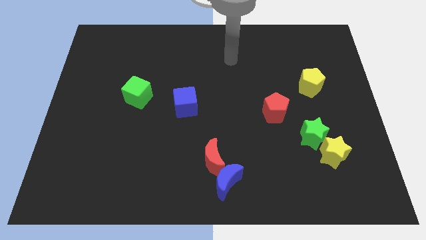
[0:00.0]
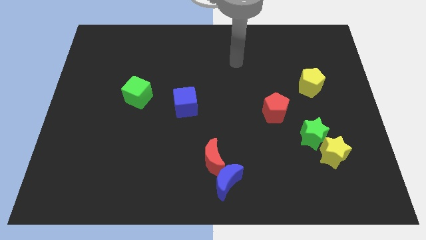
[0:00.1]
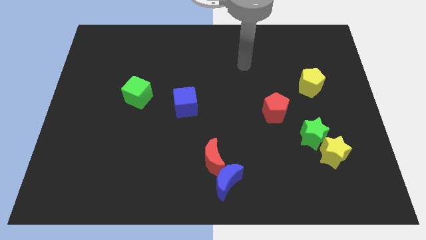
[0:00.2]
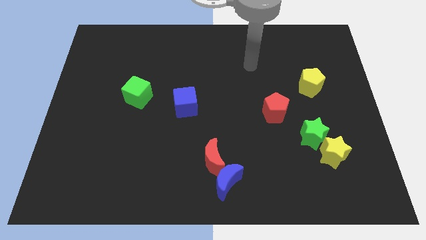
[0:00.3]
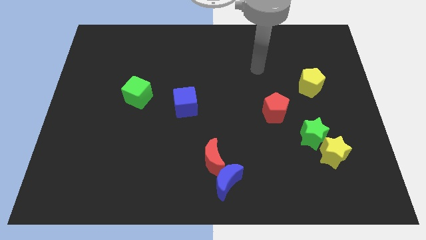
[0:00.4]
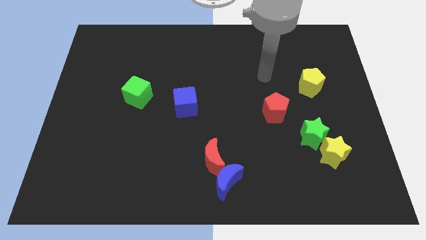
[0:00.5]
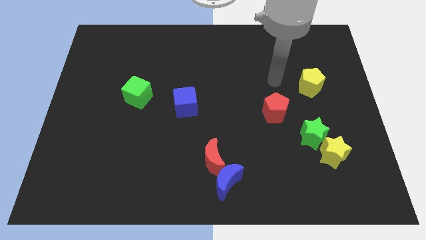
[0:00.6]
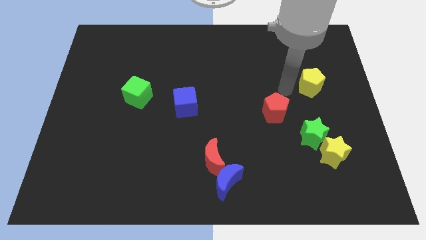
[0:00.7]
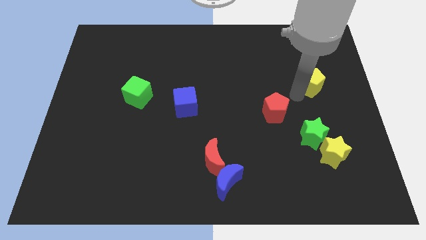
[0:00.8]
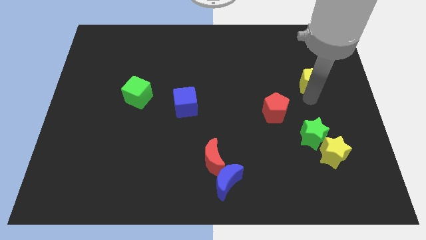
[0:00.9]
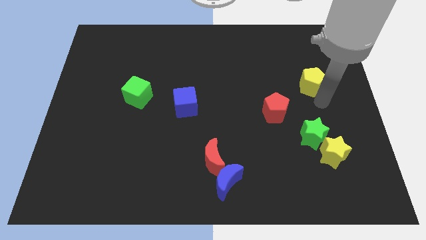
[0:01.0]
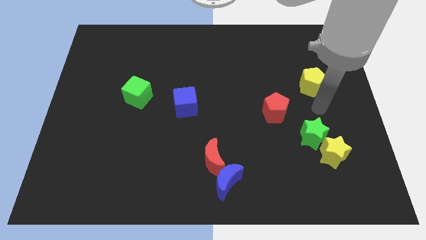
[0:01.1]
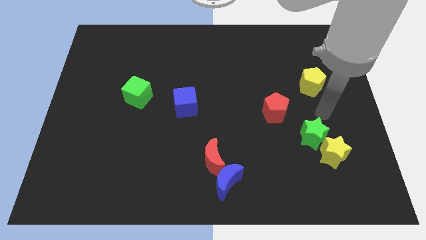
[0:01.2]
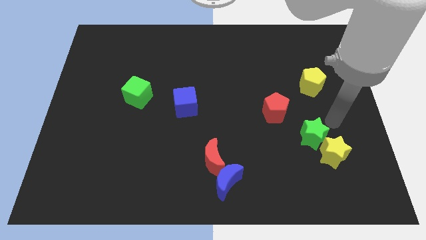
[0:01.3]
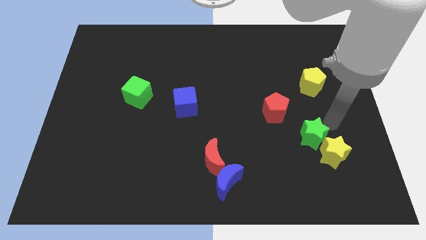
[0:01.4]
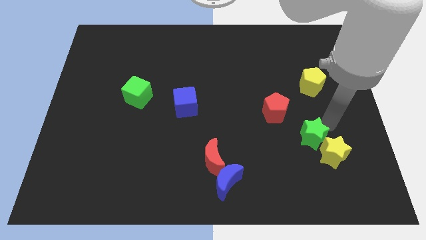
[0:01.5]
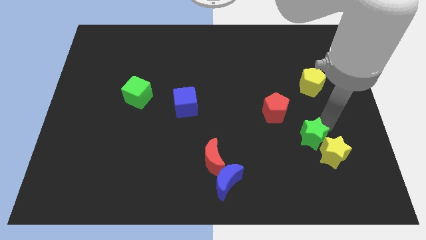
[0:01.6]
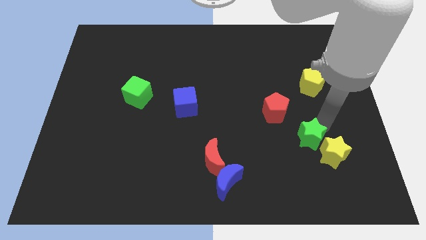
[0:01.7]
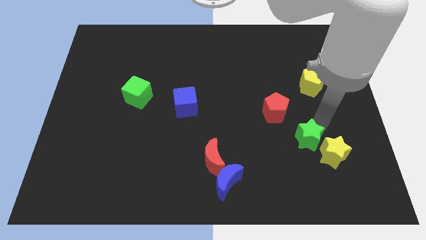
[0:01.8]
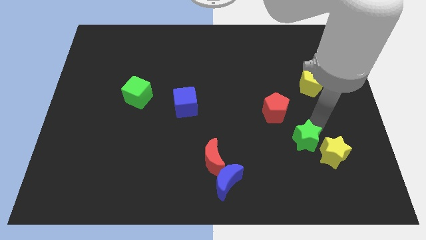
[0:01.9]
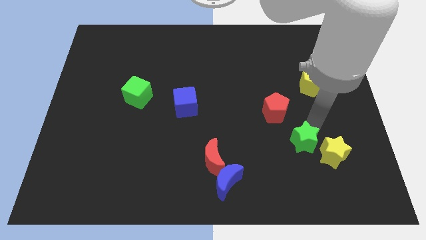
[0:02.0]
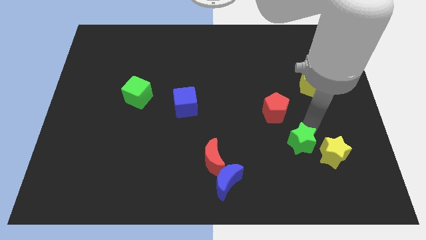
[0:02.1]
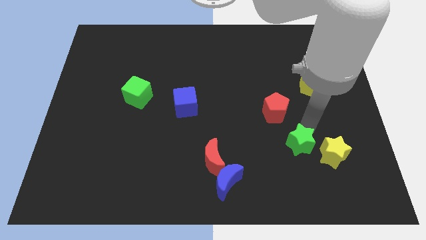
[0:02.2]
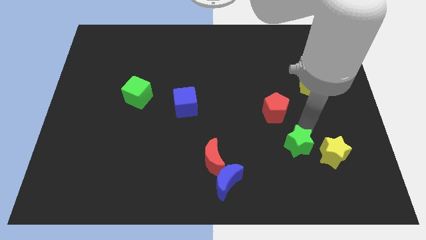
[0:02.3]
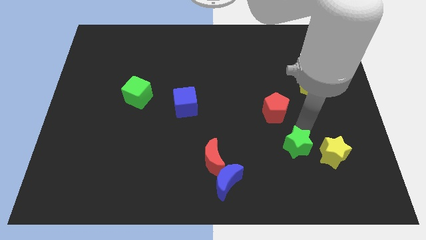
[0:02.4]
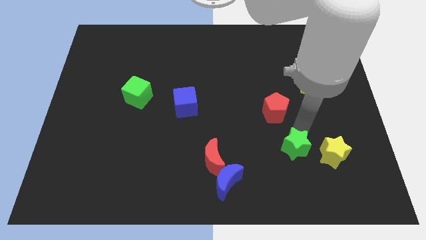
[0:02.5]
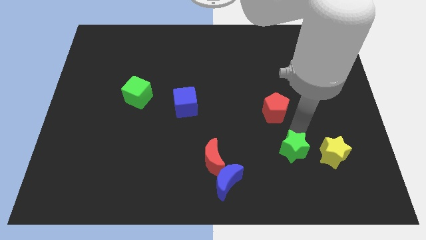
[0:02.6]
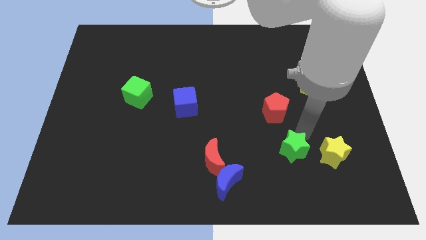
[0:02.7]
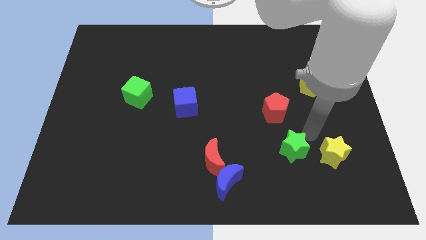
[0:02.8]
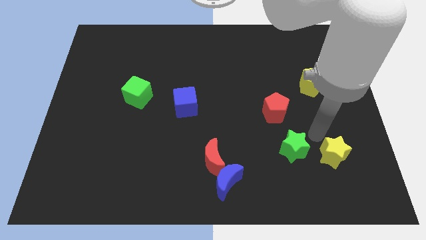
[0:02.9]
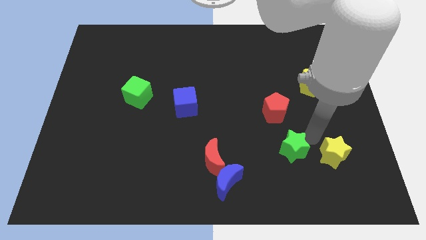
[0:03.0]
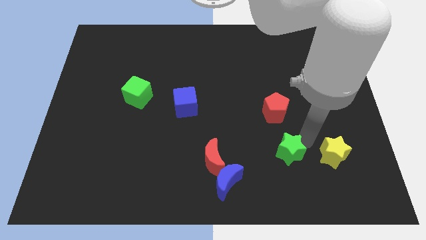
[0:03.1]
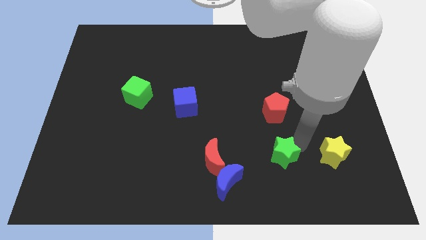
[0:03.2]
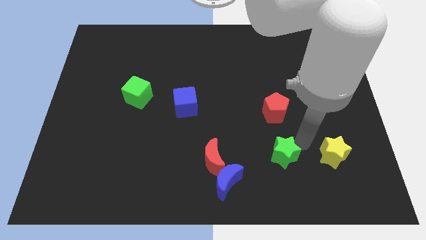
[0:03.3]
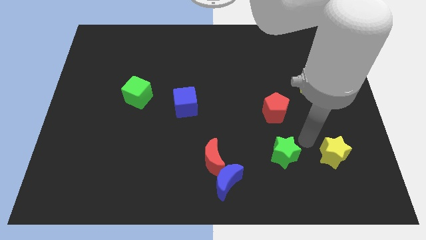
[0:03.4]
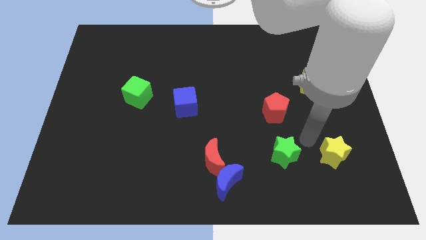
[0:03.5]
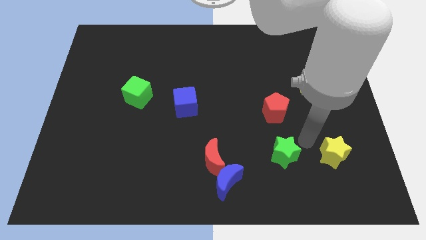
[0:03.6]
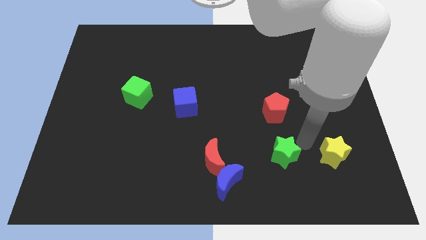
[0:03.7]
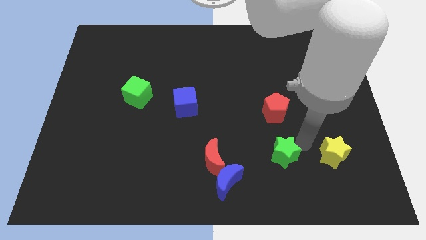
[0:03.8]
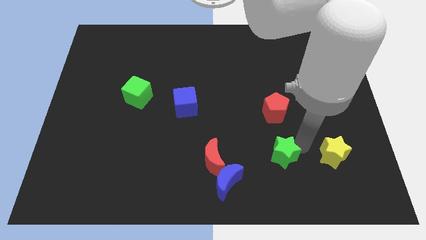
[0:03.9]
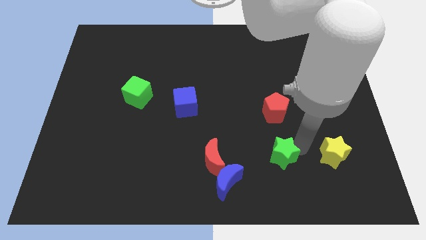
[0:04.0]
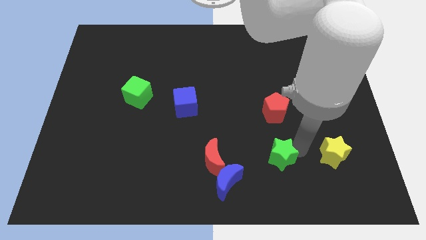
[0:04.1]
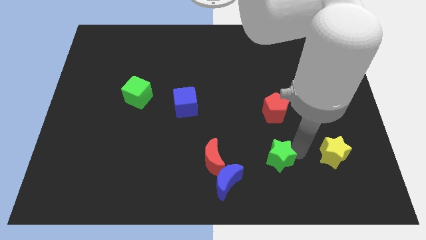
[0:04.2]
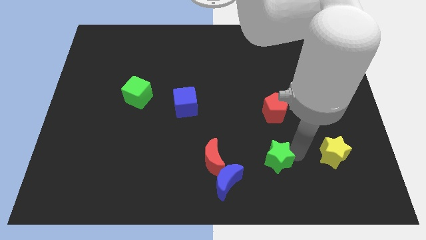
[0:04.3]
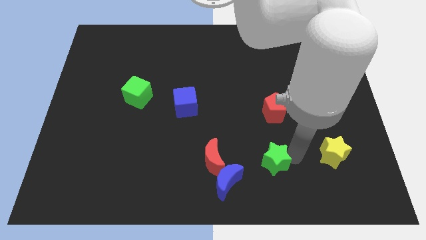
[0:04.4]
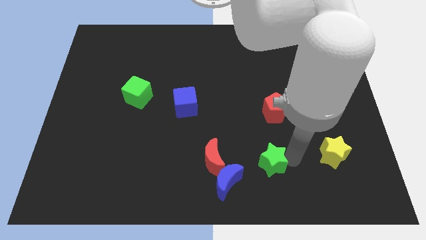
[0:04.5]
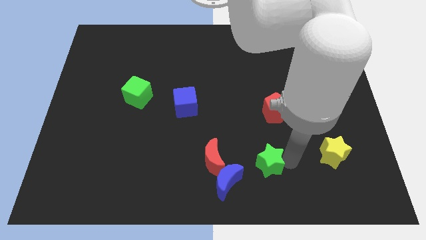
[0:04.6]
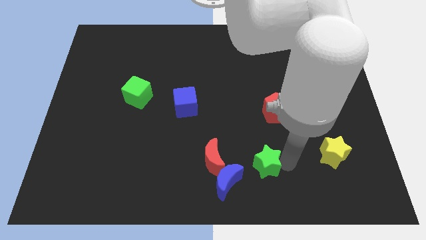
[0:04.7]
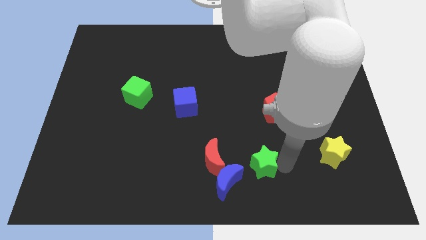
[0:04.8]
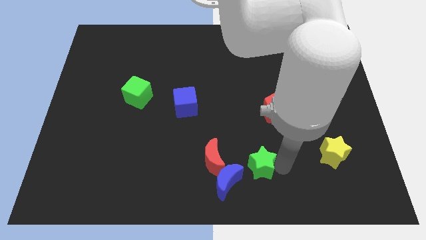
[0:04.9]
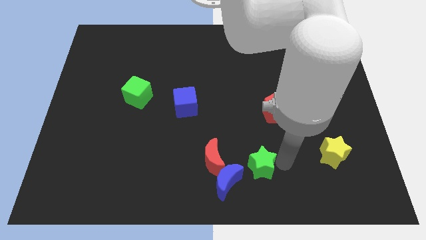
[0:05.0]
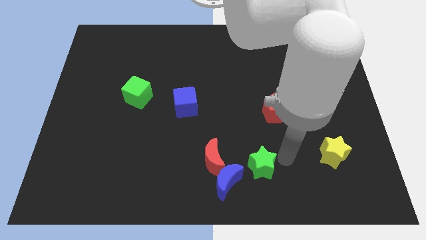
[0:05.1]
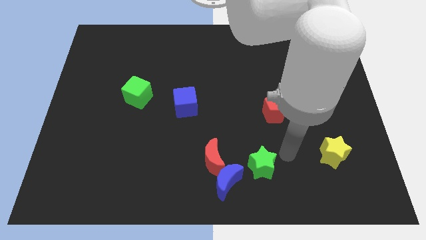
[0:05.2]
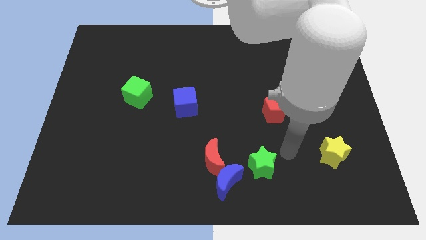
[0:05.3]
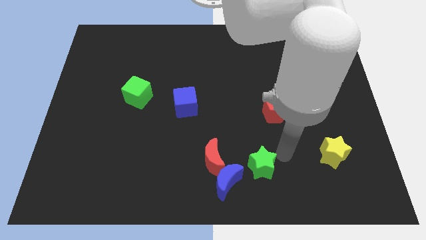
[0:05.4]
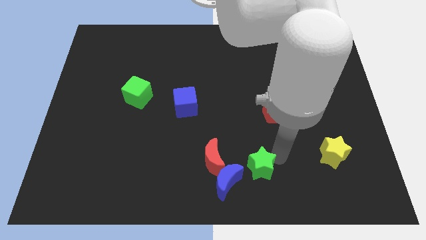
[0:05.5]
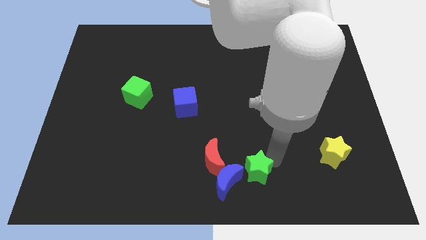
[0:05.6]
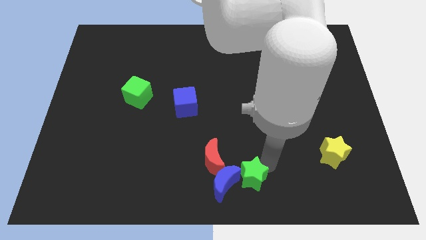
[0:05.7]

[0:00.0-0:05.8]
push the green star close to the blue moon
